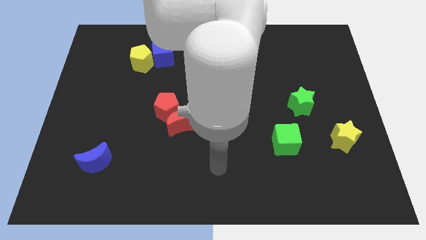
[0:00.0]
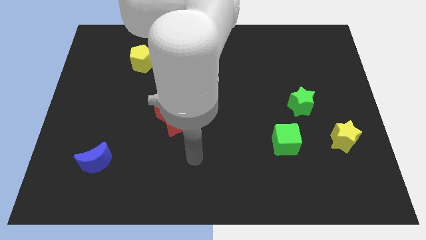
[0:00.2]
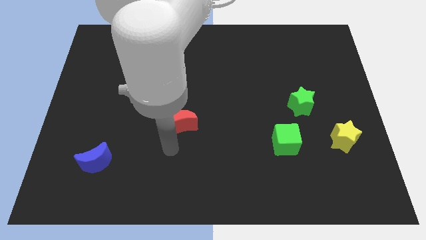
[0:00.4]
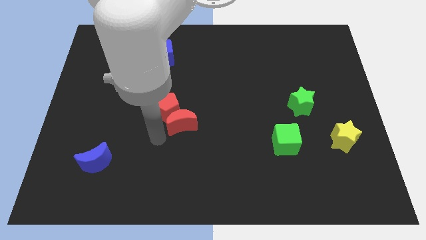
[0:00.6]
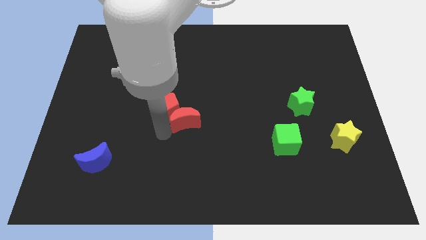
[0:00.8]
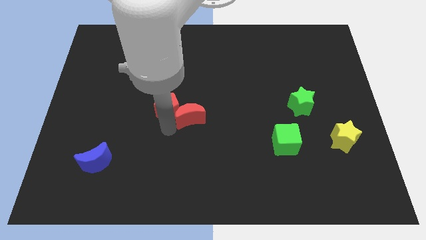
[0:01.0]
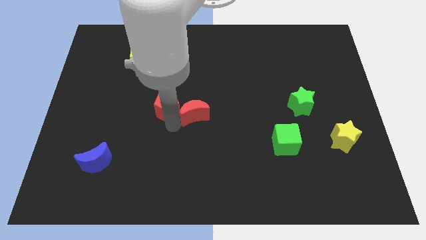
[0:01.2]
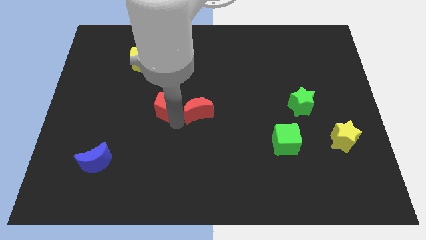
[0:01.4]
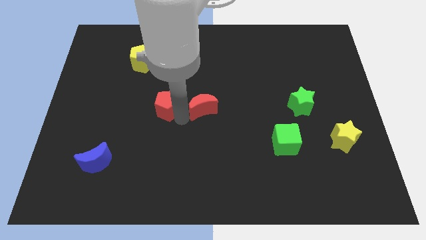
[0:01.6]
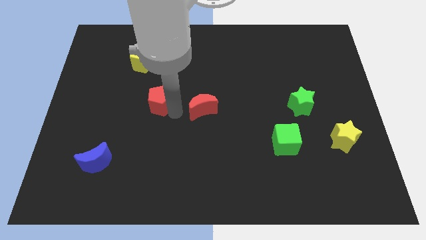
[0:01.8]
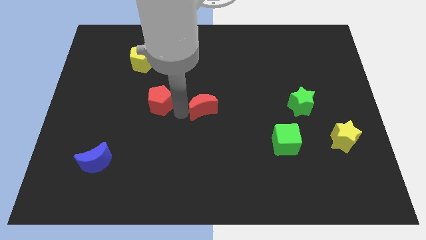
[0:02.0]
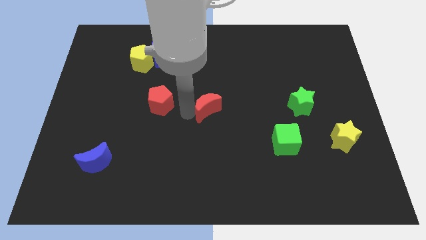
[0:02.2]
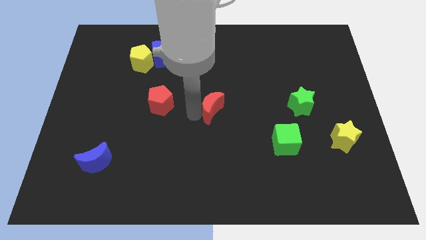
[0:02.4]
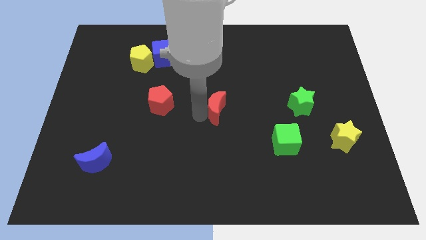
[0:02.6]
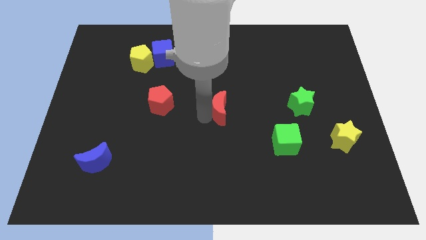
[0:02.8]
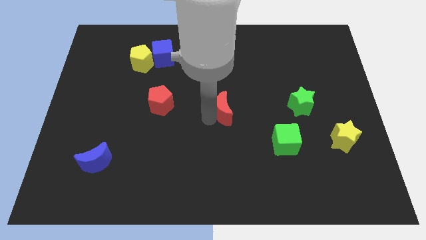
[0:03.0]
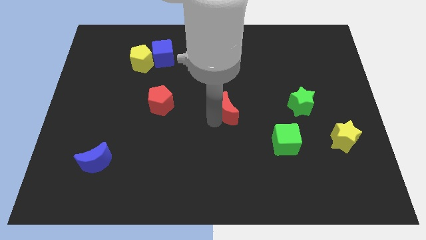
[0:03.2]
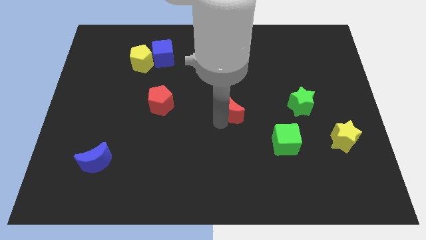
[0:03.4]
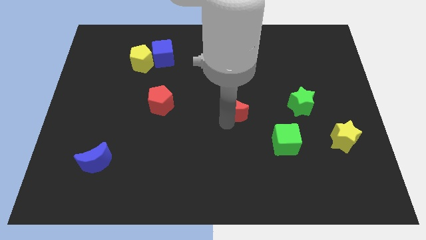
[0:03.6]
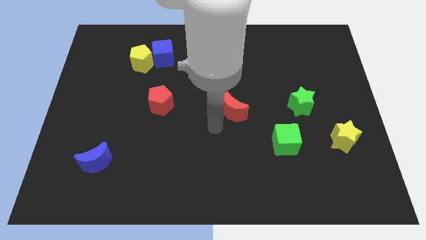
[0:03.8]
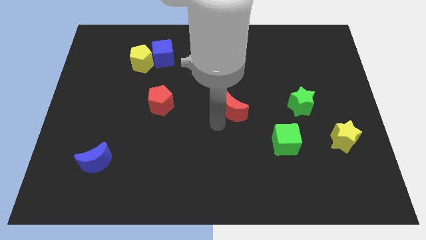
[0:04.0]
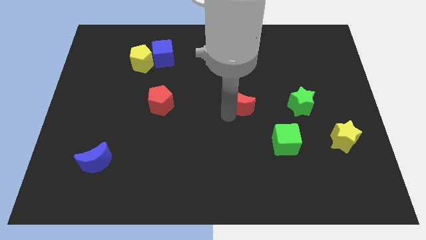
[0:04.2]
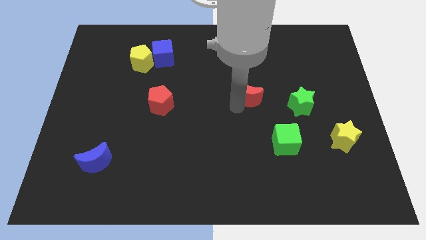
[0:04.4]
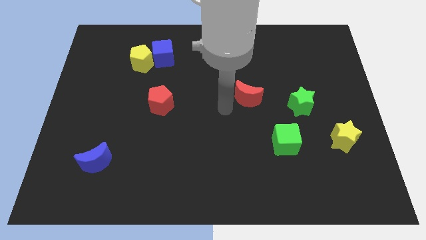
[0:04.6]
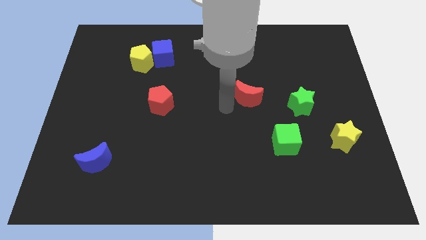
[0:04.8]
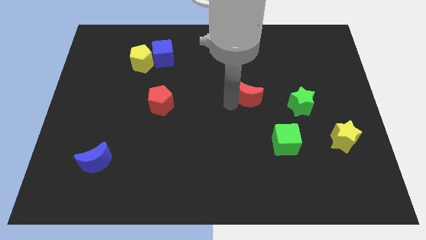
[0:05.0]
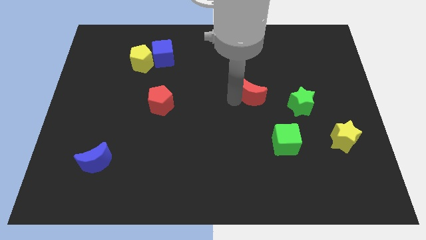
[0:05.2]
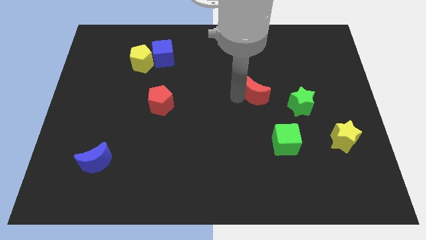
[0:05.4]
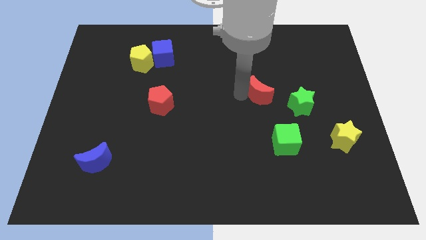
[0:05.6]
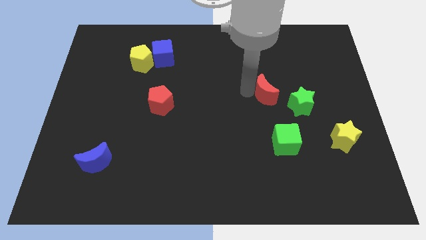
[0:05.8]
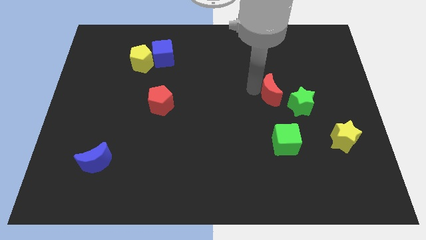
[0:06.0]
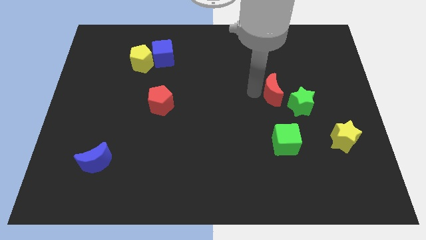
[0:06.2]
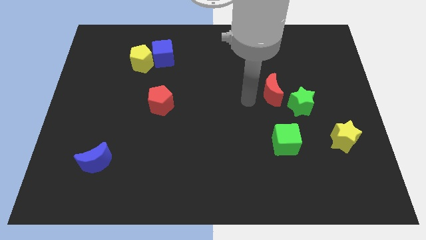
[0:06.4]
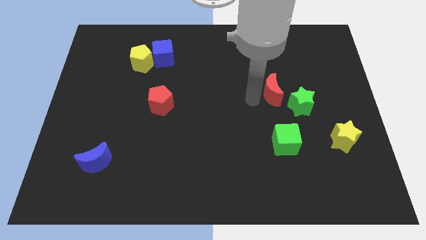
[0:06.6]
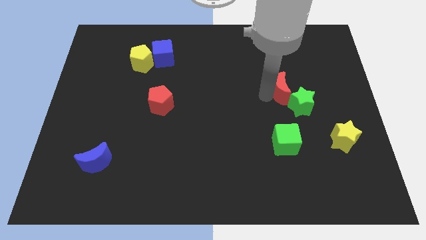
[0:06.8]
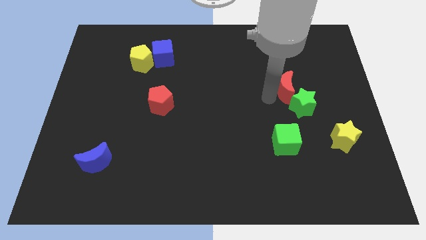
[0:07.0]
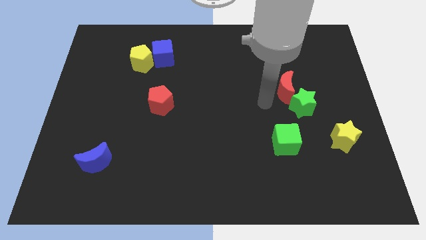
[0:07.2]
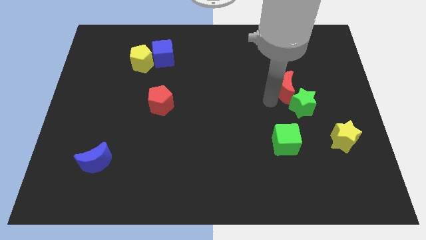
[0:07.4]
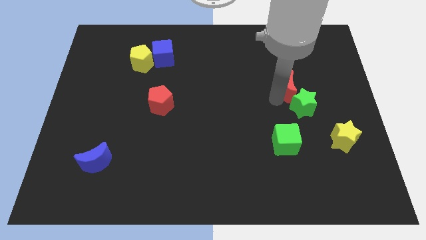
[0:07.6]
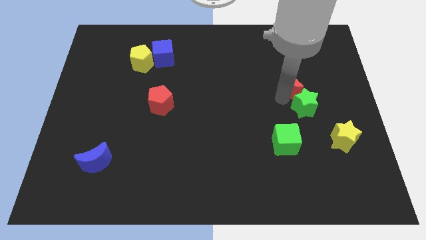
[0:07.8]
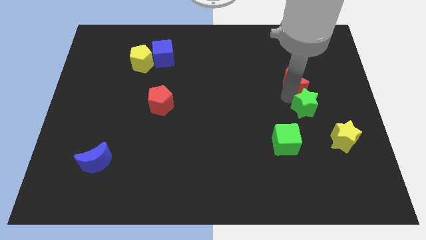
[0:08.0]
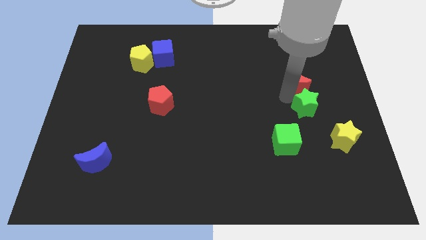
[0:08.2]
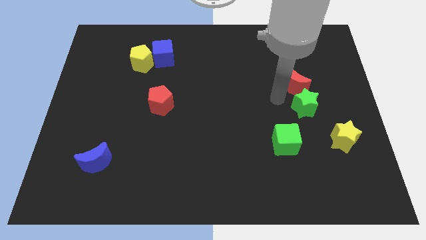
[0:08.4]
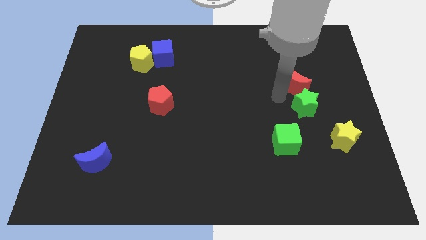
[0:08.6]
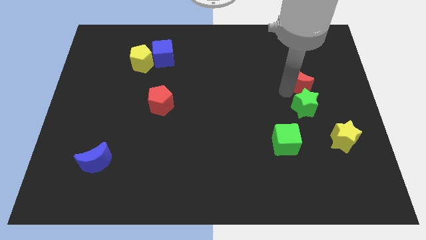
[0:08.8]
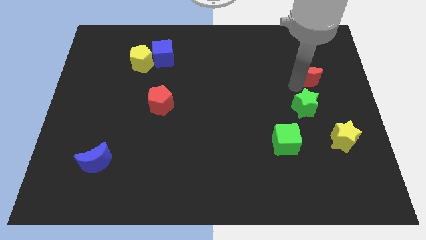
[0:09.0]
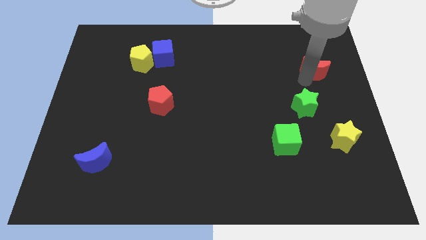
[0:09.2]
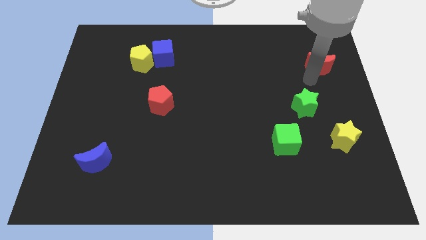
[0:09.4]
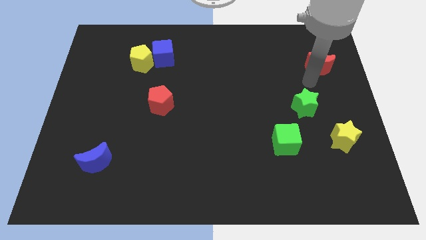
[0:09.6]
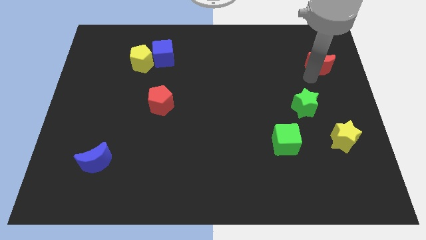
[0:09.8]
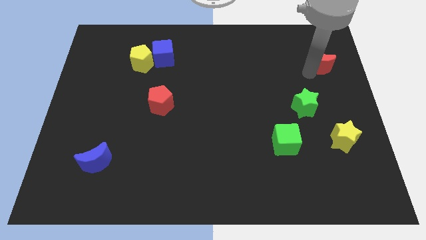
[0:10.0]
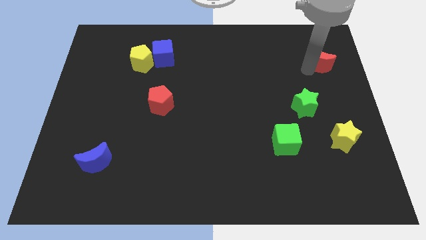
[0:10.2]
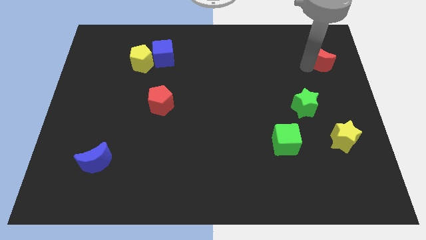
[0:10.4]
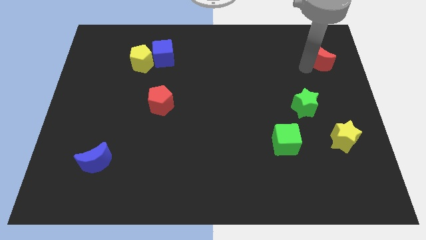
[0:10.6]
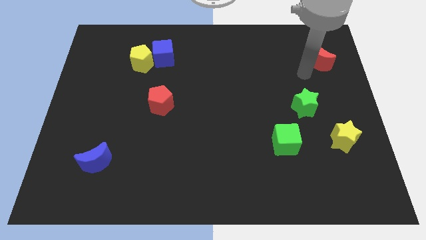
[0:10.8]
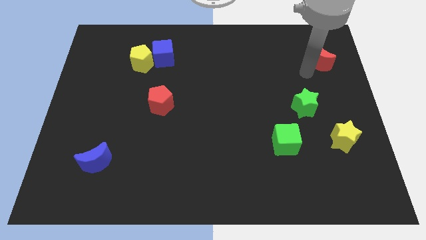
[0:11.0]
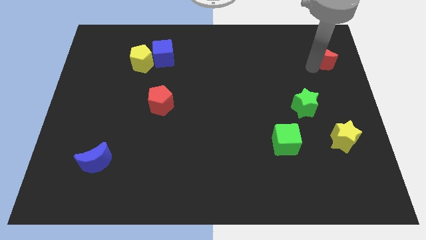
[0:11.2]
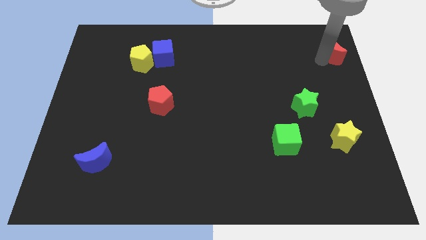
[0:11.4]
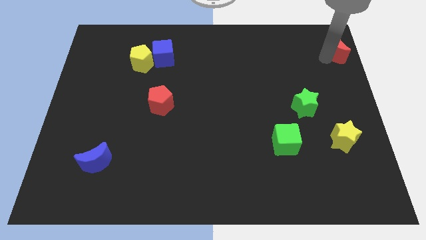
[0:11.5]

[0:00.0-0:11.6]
push the red moon to the upper right corner
